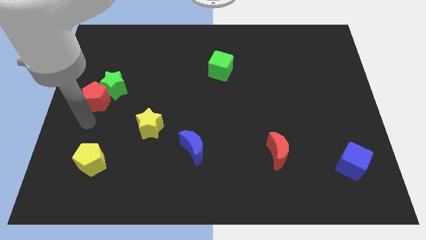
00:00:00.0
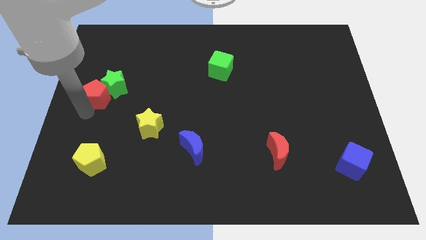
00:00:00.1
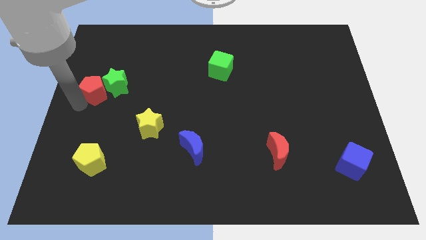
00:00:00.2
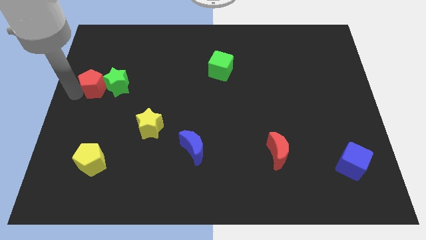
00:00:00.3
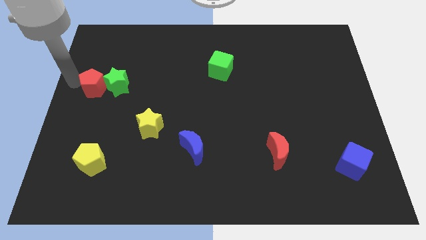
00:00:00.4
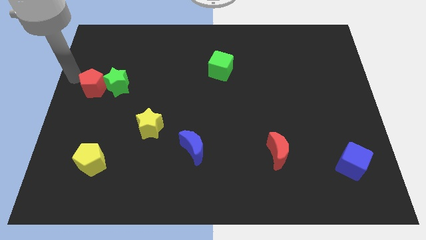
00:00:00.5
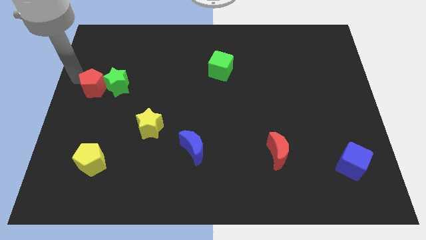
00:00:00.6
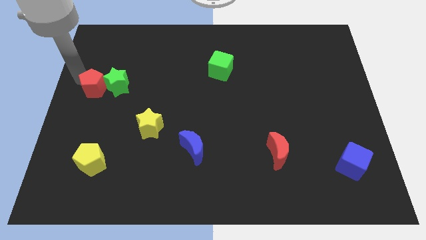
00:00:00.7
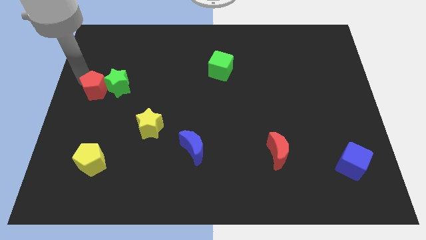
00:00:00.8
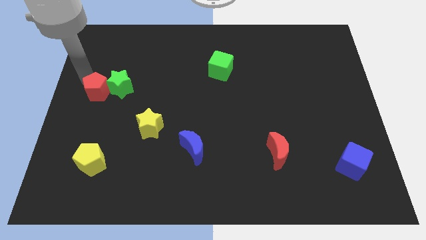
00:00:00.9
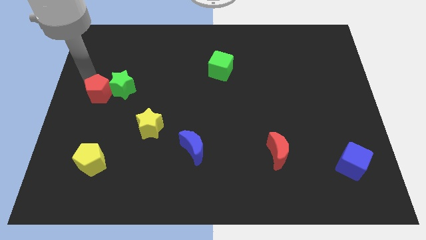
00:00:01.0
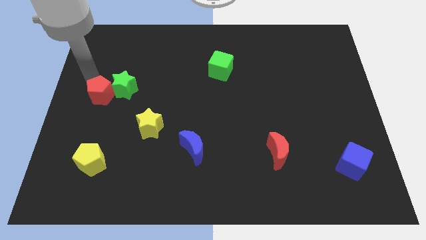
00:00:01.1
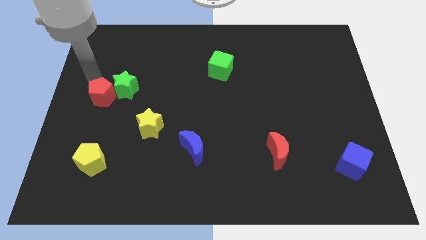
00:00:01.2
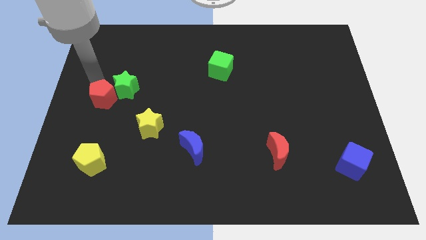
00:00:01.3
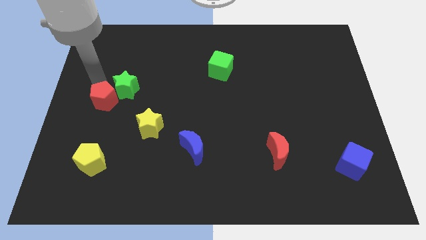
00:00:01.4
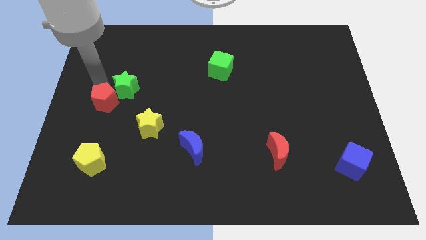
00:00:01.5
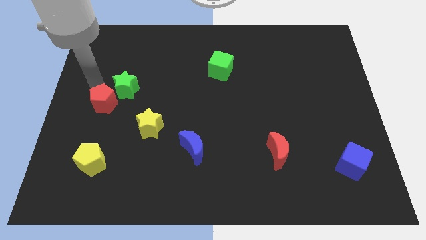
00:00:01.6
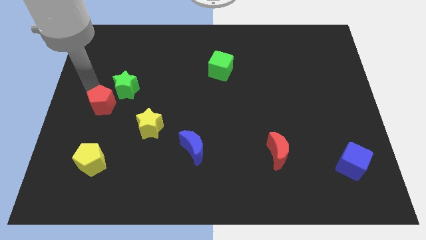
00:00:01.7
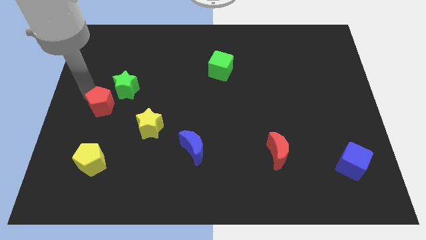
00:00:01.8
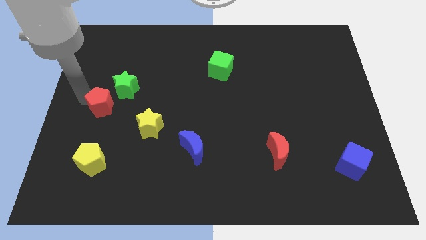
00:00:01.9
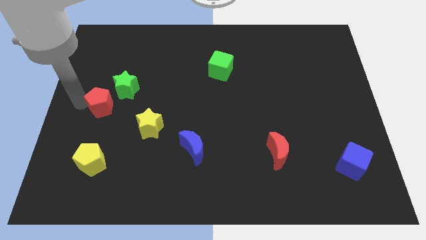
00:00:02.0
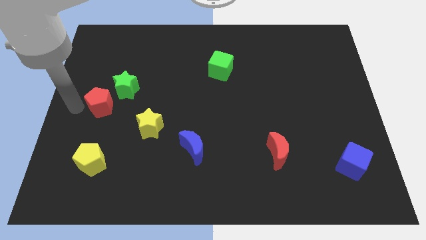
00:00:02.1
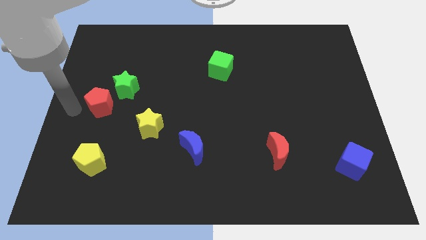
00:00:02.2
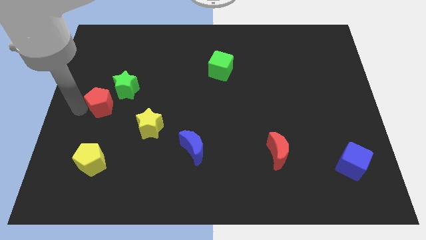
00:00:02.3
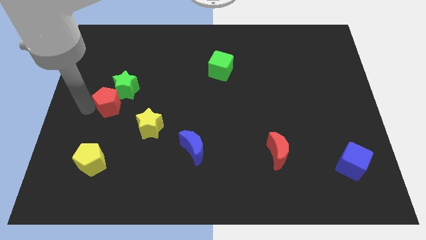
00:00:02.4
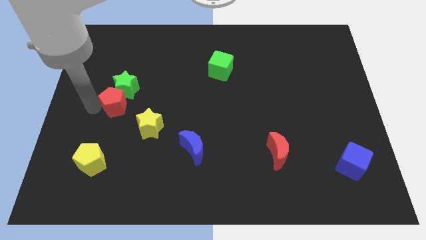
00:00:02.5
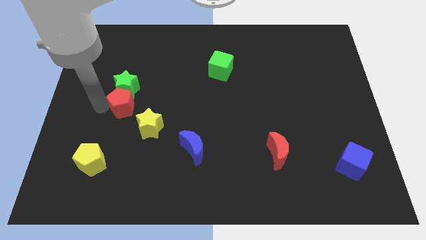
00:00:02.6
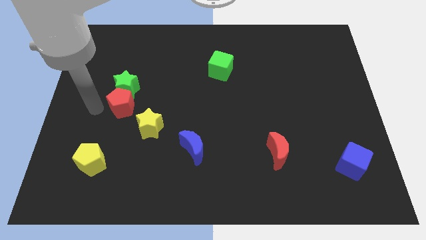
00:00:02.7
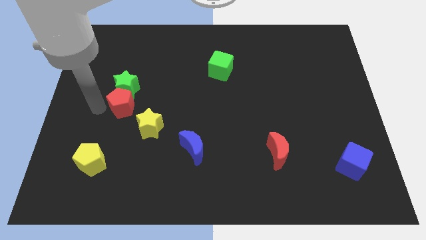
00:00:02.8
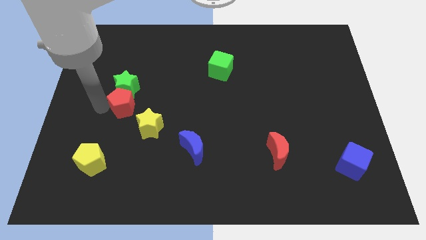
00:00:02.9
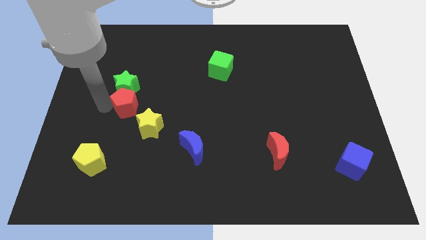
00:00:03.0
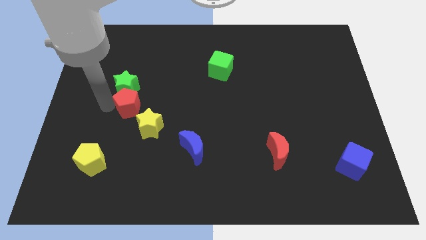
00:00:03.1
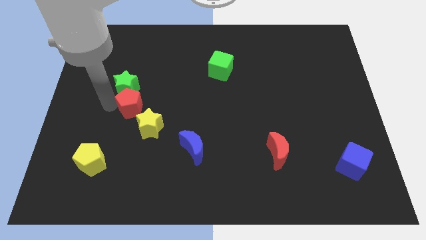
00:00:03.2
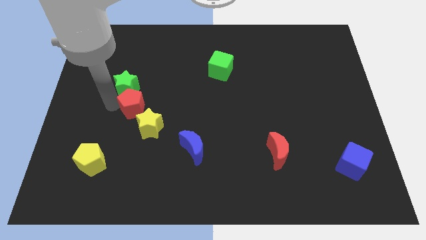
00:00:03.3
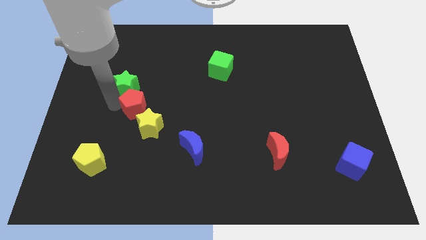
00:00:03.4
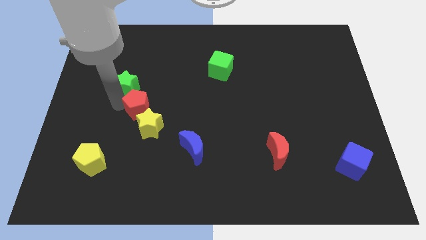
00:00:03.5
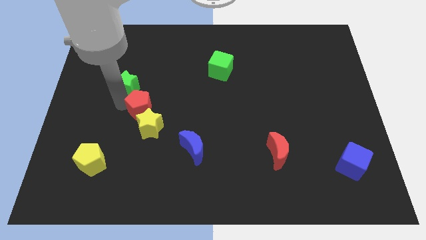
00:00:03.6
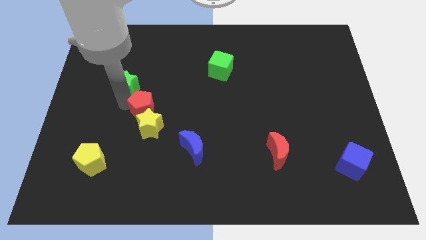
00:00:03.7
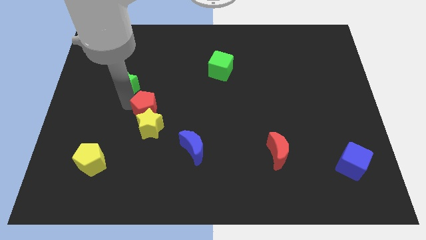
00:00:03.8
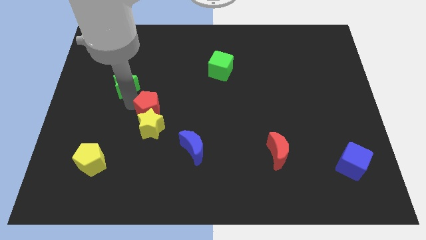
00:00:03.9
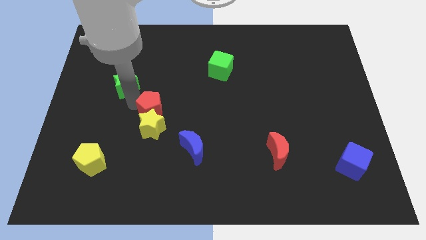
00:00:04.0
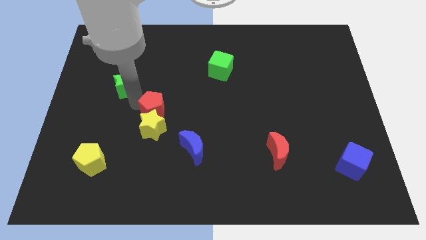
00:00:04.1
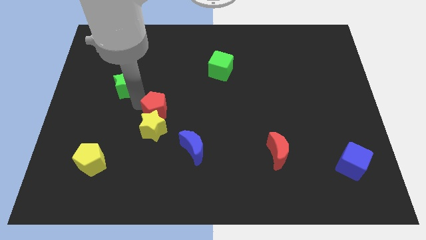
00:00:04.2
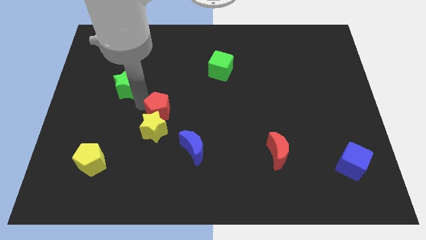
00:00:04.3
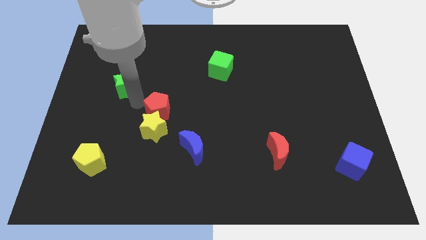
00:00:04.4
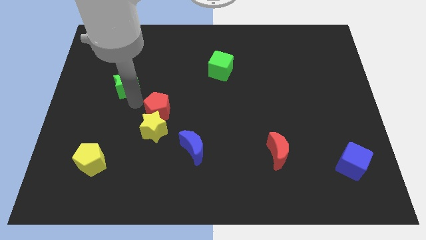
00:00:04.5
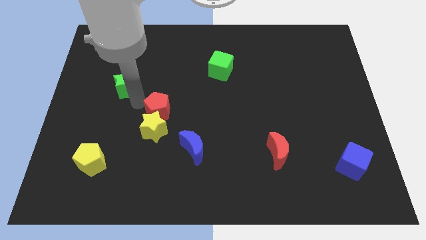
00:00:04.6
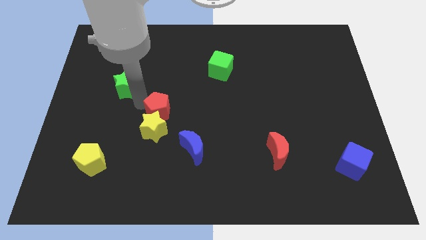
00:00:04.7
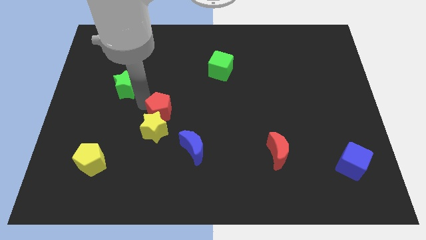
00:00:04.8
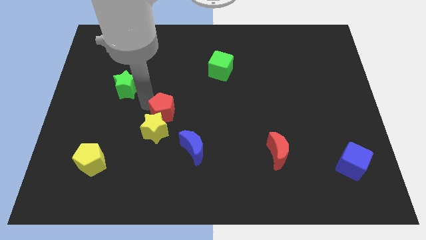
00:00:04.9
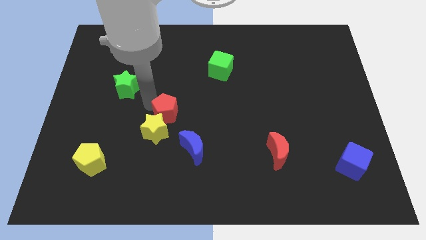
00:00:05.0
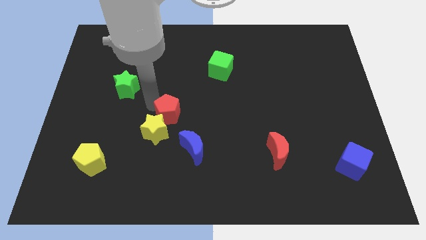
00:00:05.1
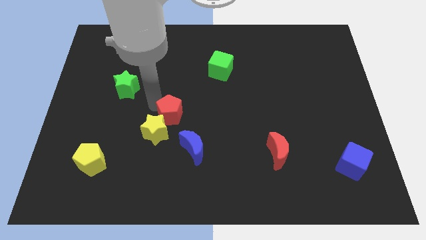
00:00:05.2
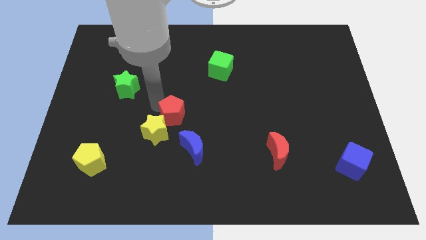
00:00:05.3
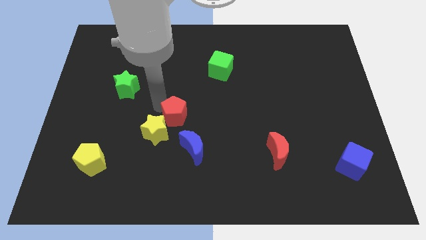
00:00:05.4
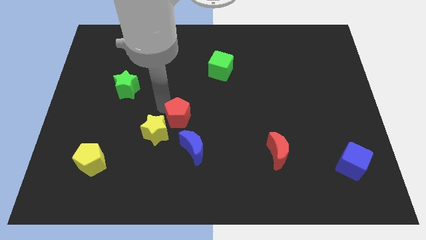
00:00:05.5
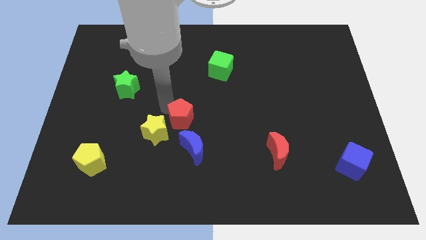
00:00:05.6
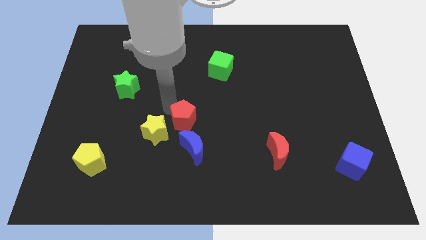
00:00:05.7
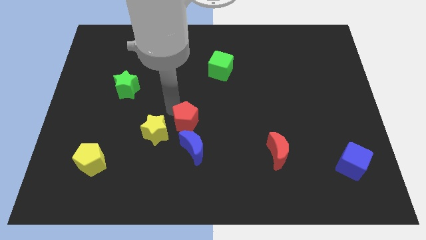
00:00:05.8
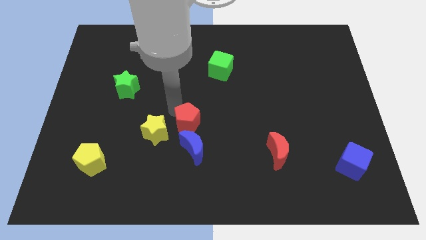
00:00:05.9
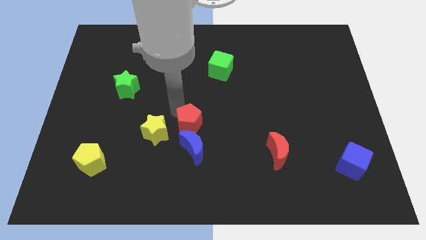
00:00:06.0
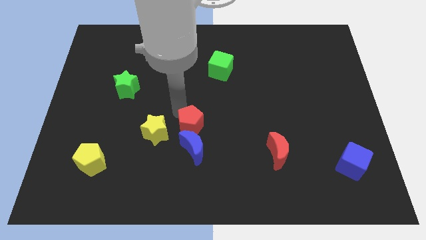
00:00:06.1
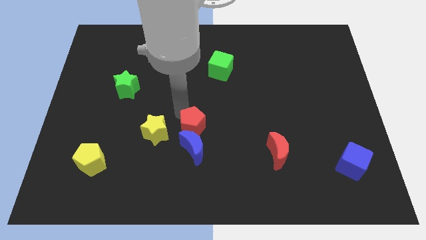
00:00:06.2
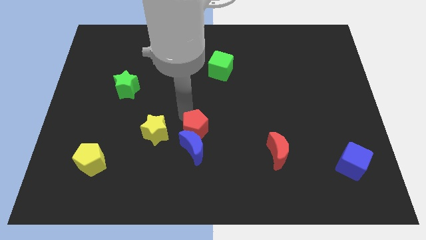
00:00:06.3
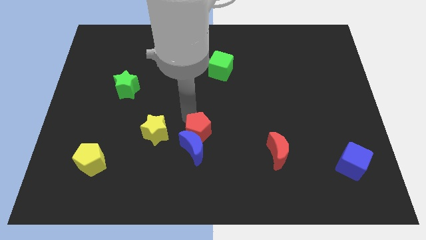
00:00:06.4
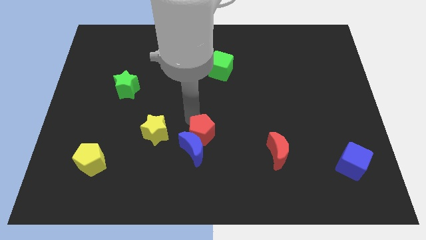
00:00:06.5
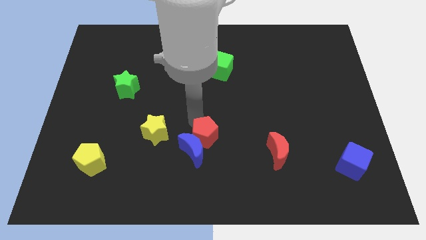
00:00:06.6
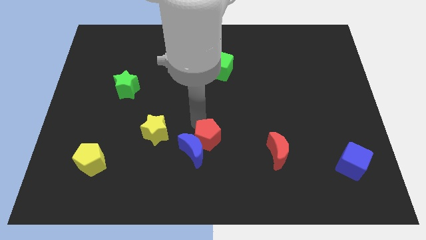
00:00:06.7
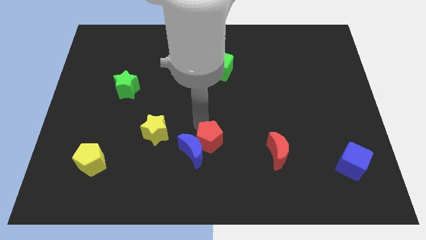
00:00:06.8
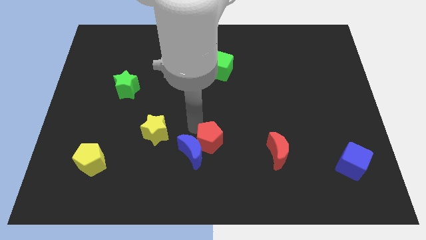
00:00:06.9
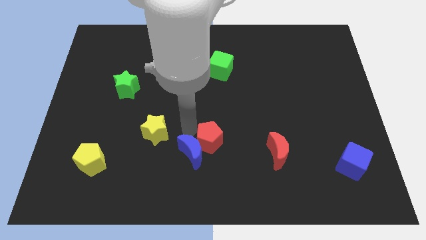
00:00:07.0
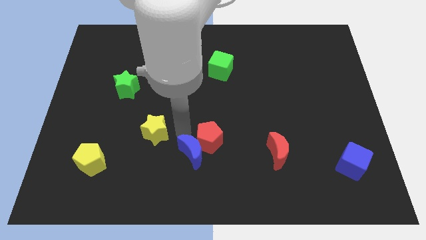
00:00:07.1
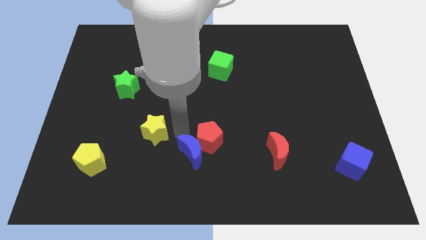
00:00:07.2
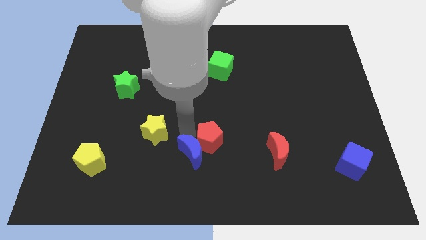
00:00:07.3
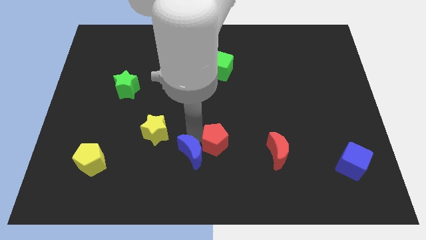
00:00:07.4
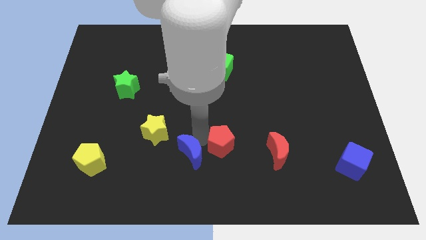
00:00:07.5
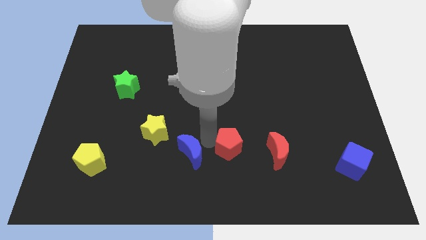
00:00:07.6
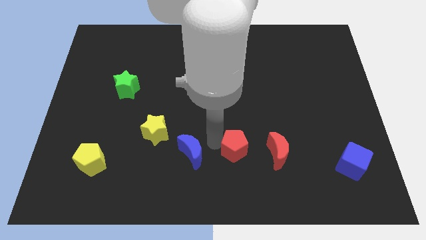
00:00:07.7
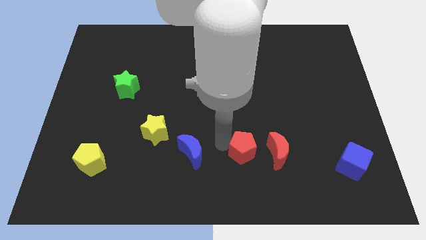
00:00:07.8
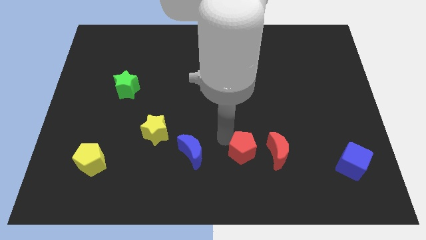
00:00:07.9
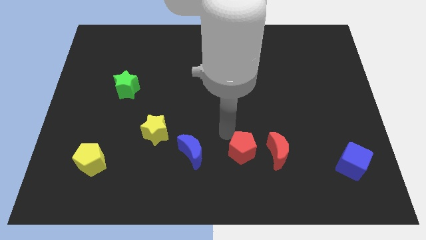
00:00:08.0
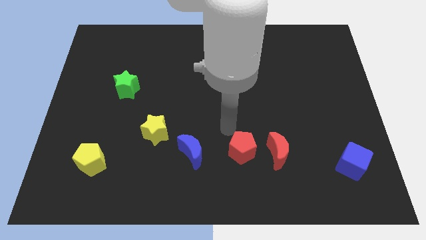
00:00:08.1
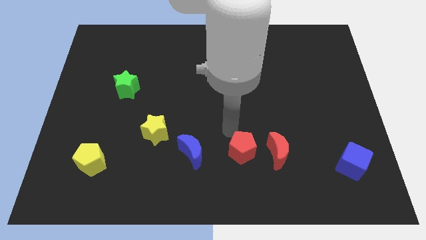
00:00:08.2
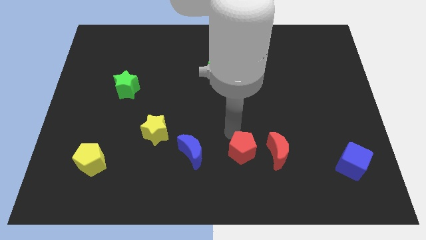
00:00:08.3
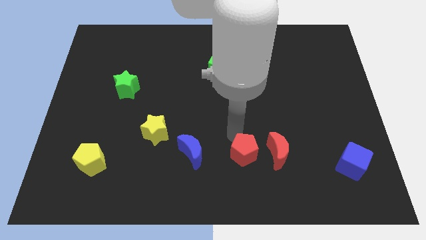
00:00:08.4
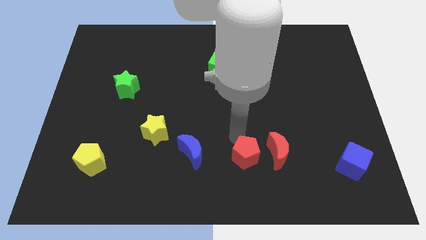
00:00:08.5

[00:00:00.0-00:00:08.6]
move the red pentagon diagonally down and to the left of the red moon
